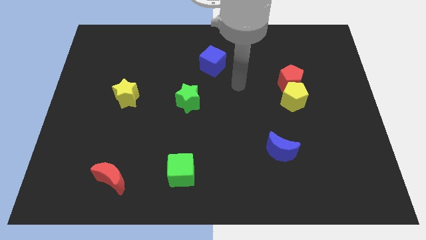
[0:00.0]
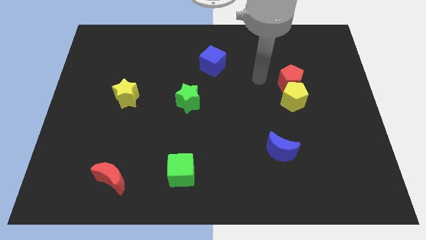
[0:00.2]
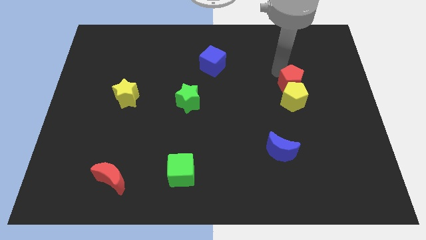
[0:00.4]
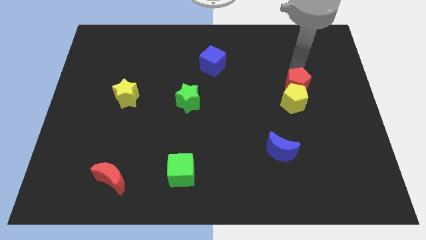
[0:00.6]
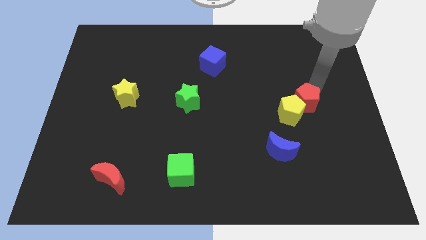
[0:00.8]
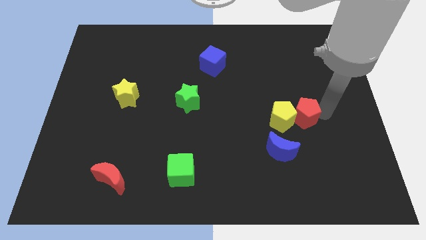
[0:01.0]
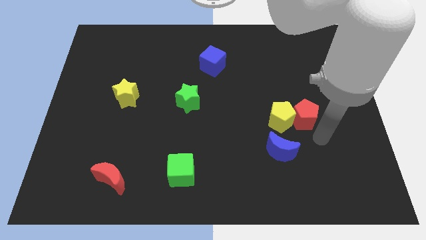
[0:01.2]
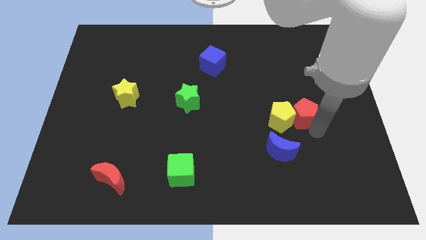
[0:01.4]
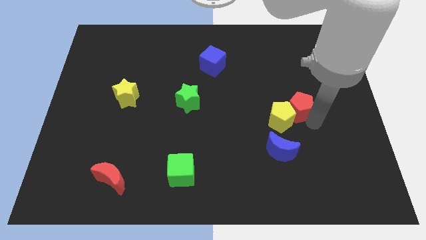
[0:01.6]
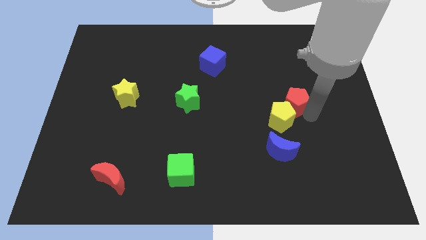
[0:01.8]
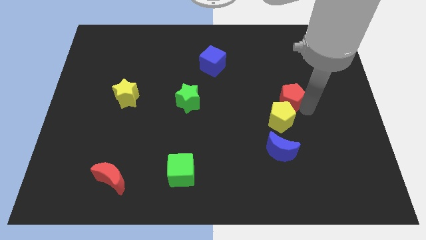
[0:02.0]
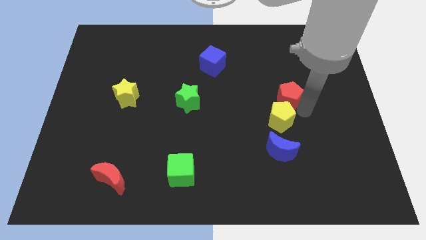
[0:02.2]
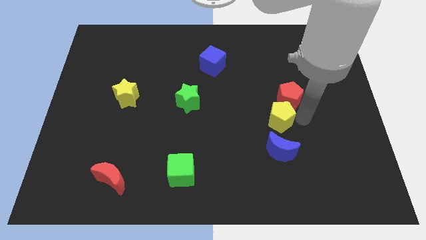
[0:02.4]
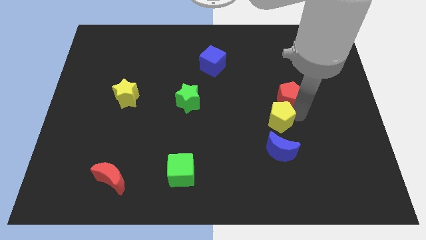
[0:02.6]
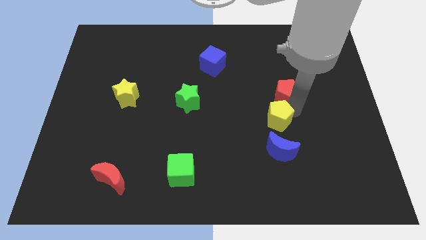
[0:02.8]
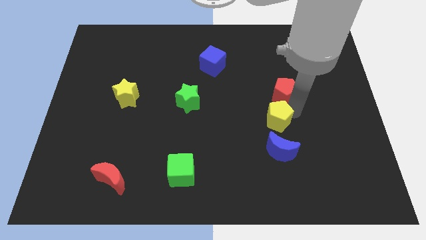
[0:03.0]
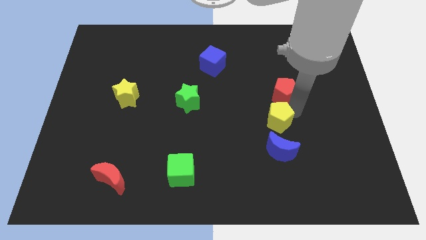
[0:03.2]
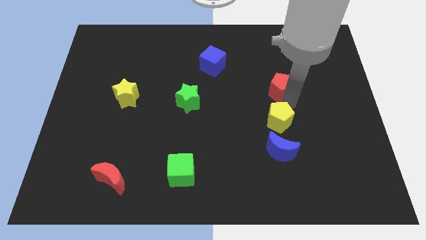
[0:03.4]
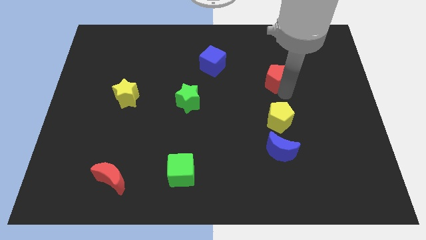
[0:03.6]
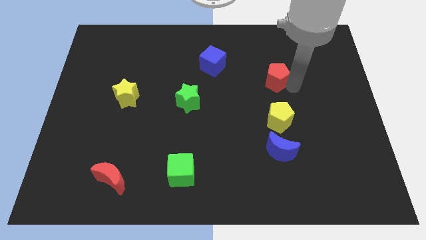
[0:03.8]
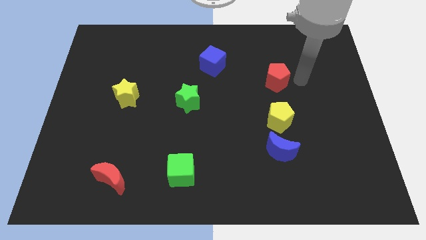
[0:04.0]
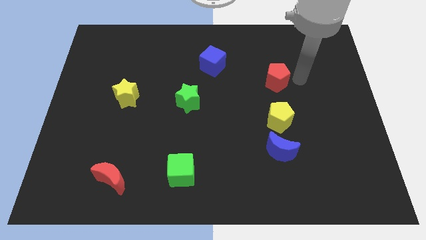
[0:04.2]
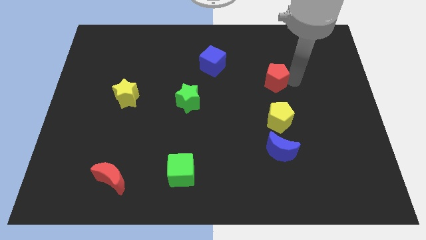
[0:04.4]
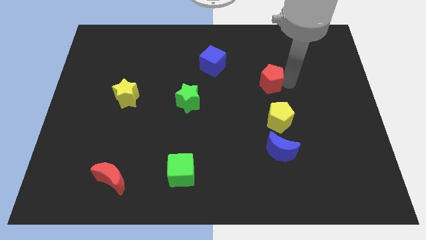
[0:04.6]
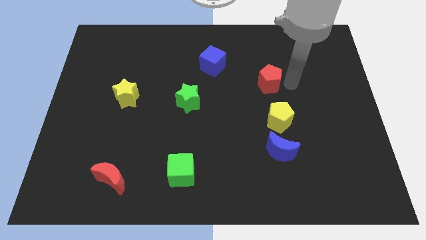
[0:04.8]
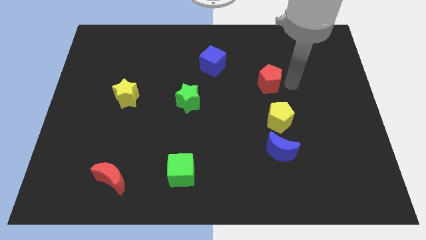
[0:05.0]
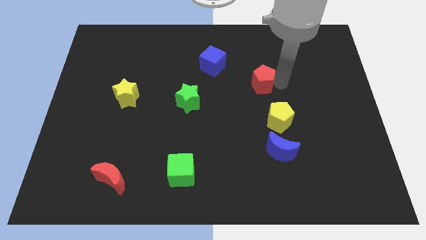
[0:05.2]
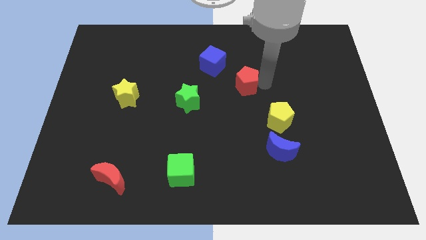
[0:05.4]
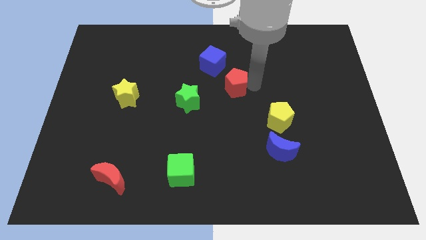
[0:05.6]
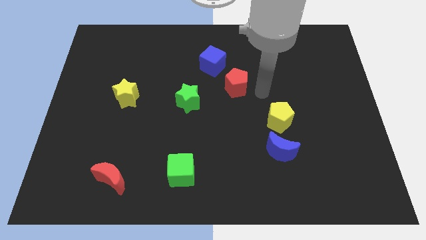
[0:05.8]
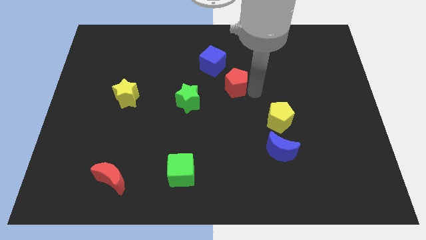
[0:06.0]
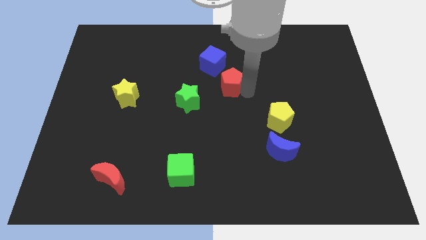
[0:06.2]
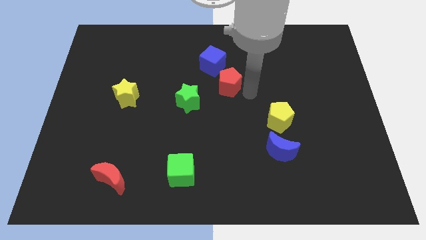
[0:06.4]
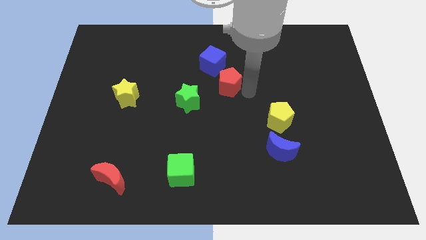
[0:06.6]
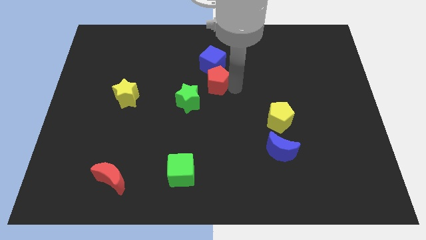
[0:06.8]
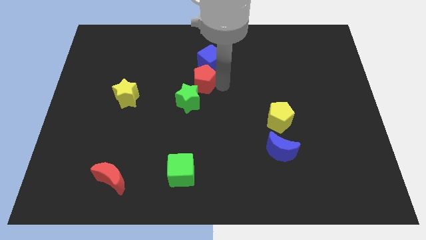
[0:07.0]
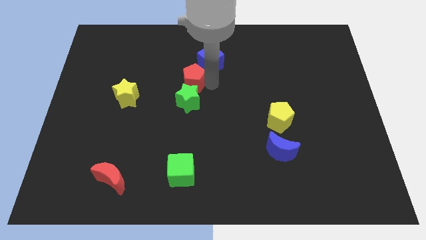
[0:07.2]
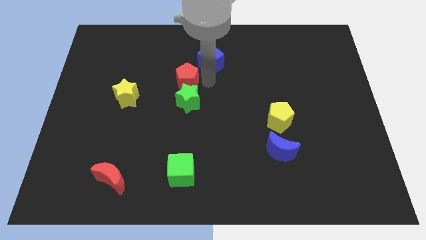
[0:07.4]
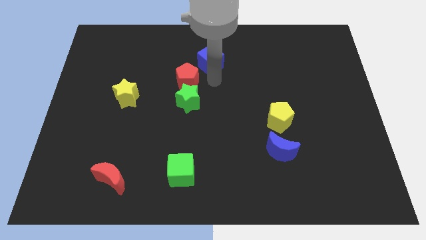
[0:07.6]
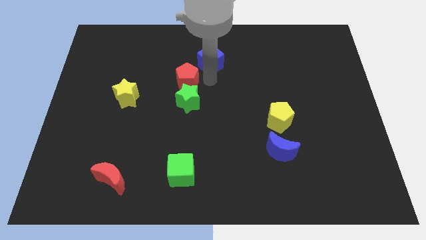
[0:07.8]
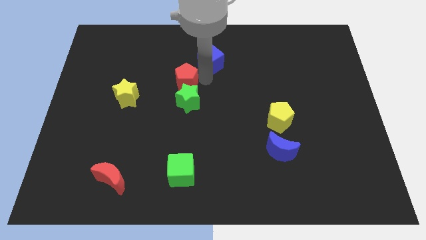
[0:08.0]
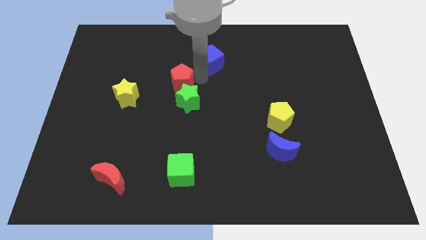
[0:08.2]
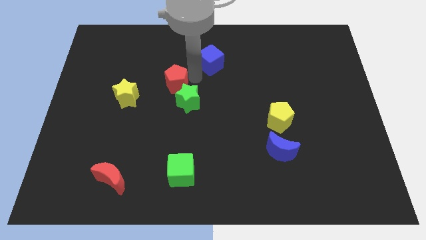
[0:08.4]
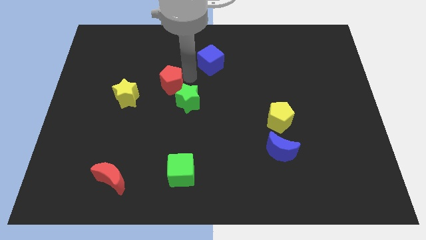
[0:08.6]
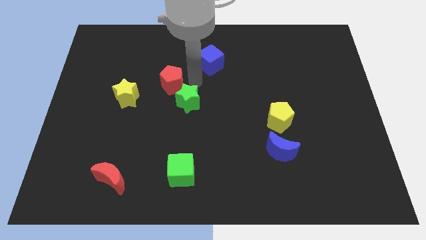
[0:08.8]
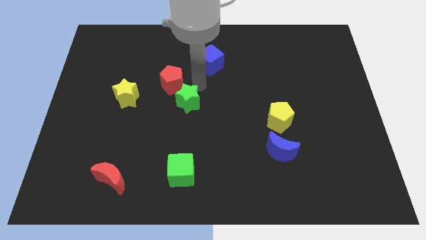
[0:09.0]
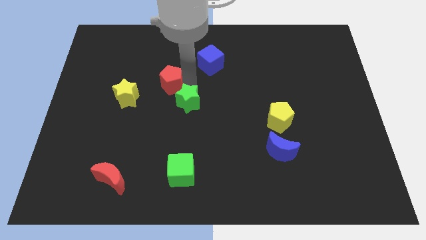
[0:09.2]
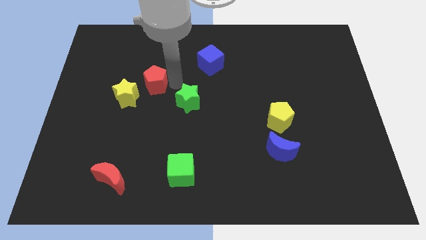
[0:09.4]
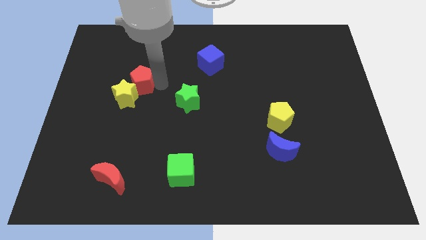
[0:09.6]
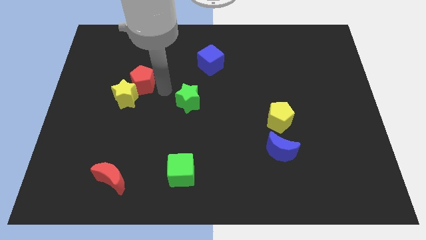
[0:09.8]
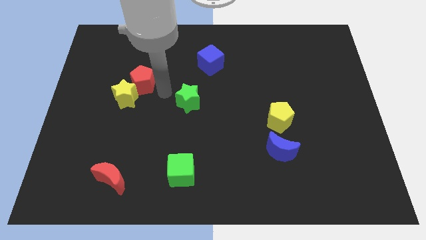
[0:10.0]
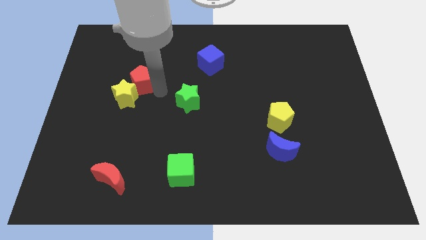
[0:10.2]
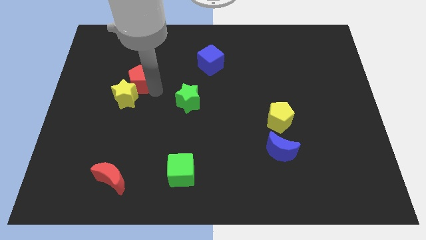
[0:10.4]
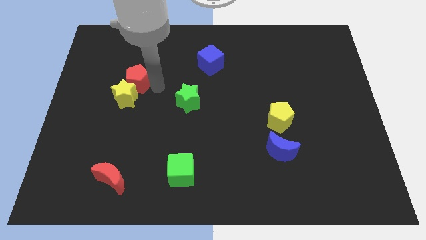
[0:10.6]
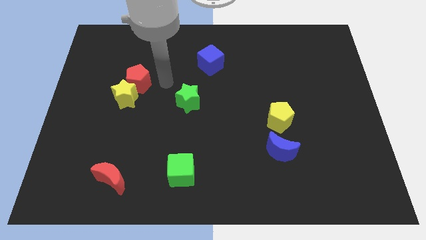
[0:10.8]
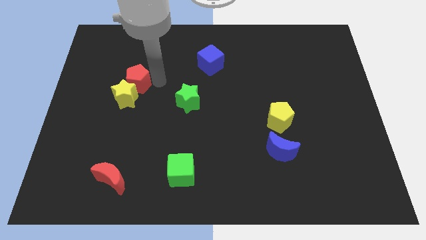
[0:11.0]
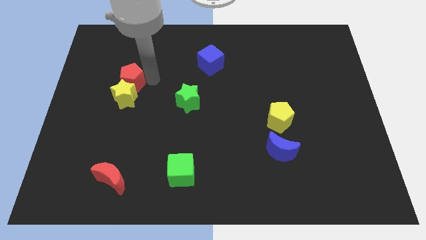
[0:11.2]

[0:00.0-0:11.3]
slide the red pentagon to the top left side of the yellow star

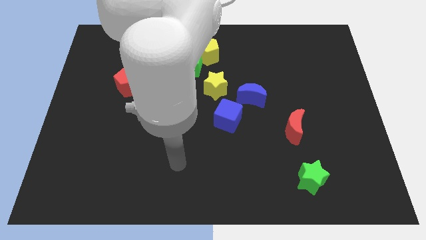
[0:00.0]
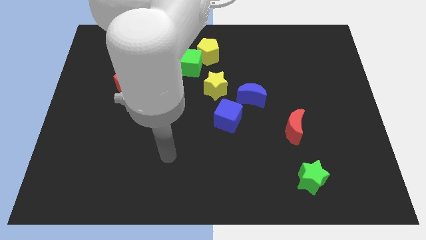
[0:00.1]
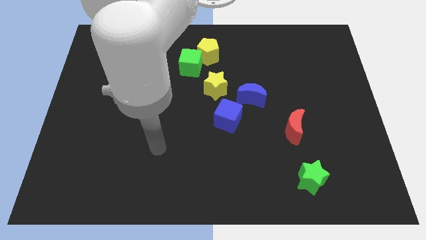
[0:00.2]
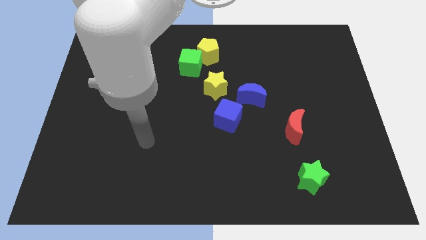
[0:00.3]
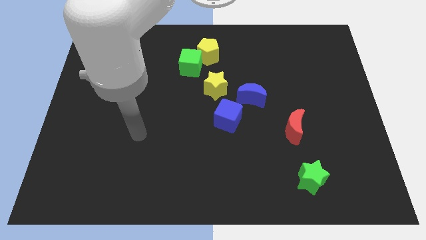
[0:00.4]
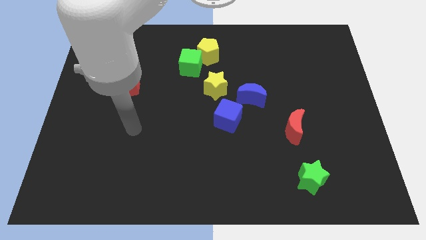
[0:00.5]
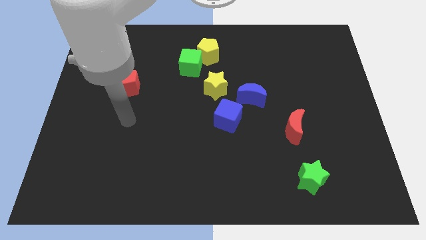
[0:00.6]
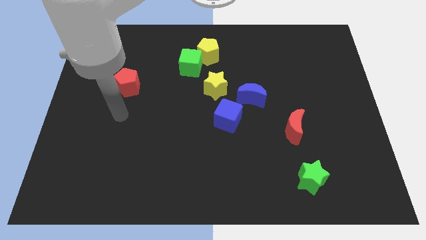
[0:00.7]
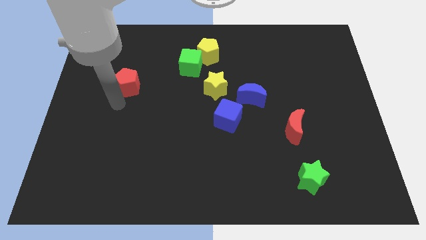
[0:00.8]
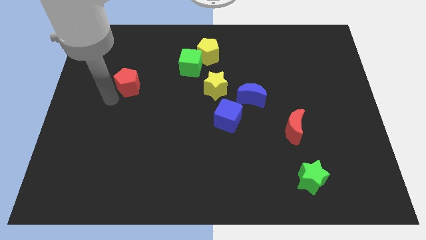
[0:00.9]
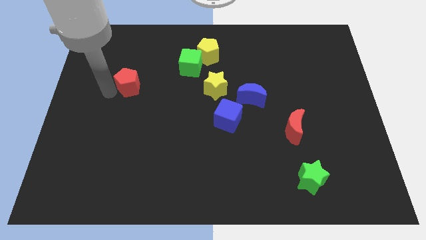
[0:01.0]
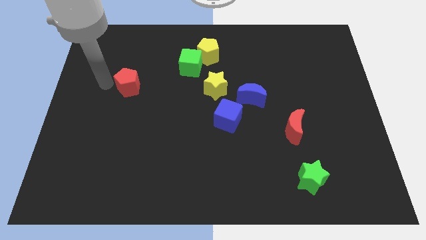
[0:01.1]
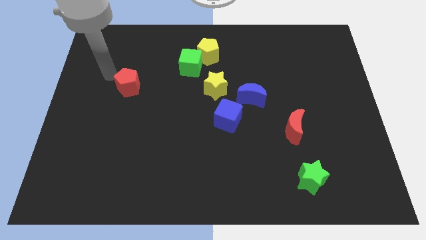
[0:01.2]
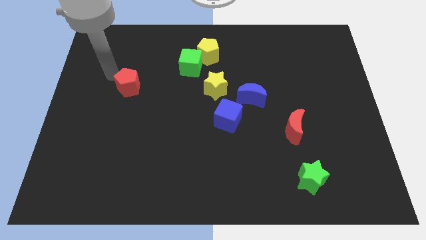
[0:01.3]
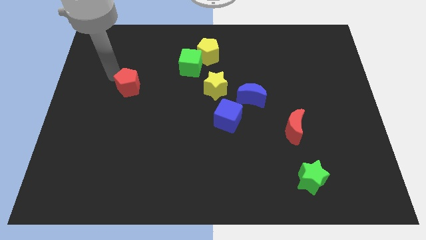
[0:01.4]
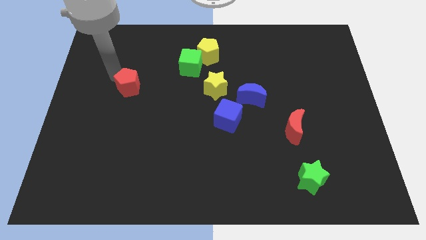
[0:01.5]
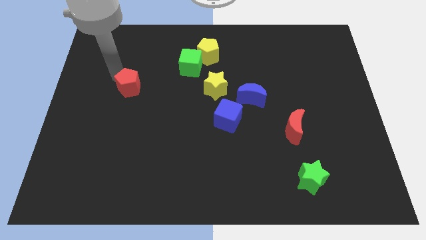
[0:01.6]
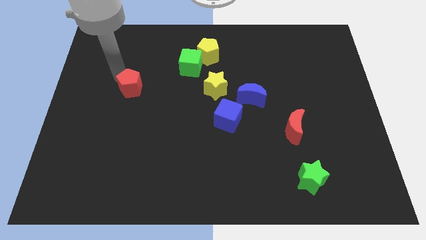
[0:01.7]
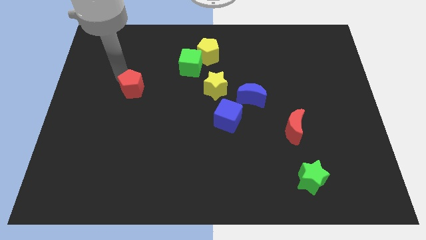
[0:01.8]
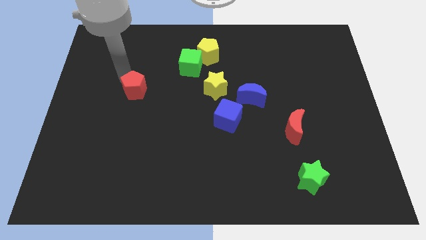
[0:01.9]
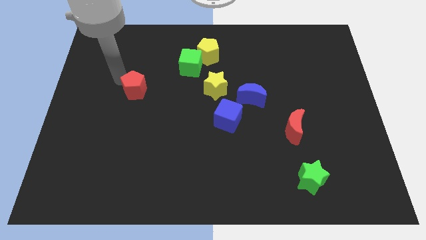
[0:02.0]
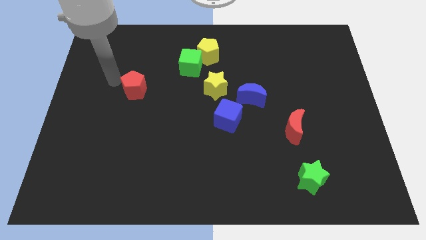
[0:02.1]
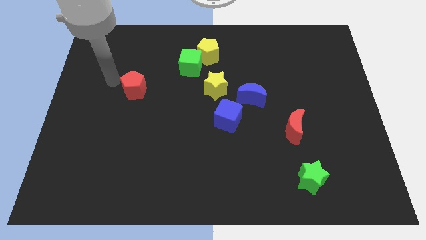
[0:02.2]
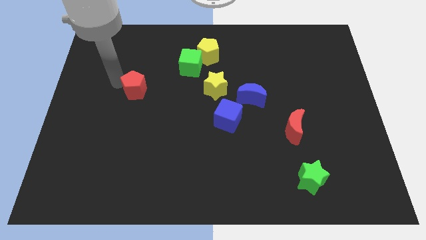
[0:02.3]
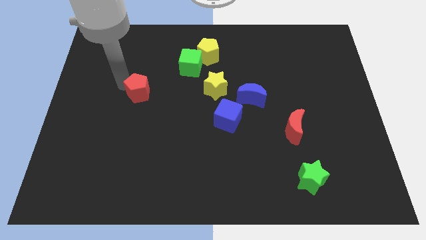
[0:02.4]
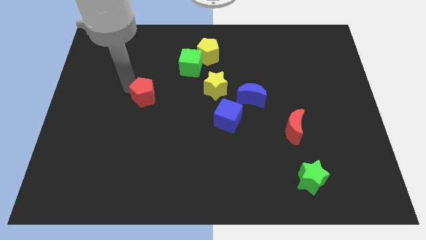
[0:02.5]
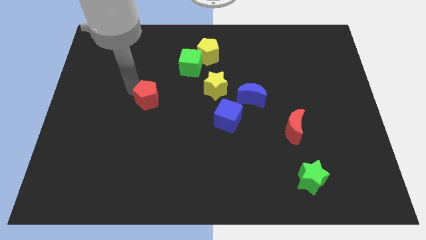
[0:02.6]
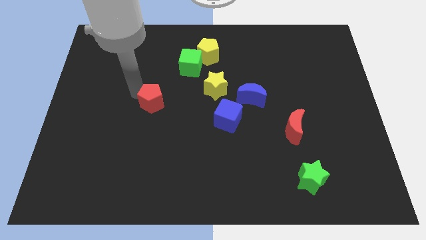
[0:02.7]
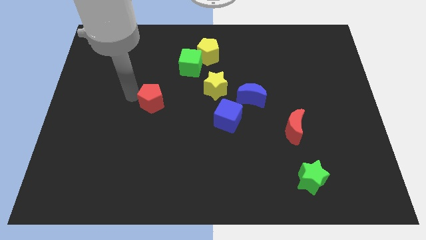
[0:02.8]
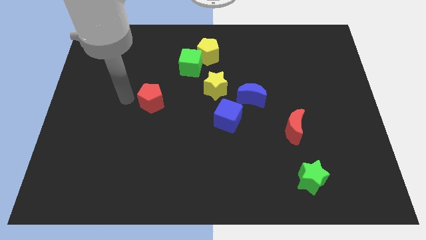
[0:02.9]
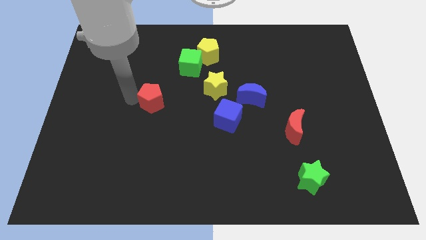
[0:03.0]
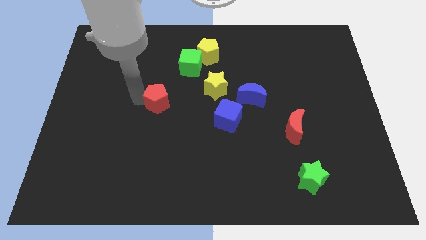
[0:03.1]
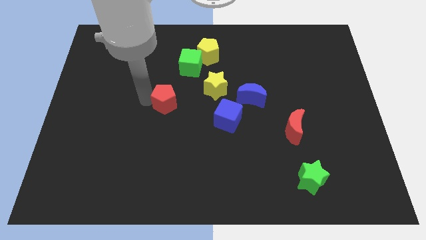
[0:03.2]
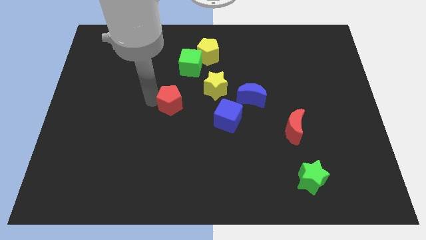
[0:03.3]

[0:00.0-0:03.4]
push the red pentagon diagonally down and to the left of the yellow star
